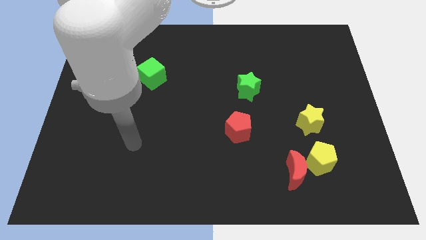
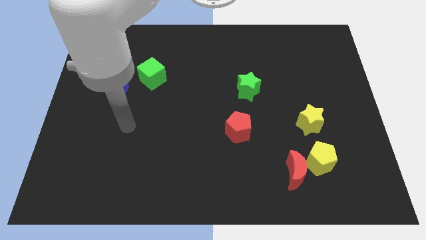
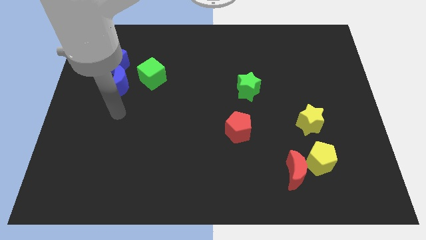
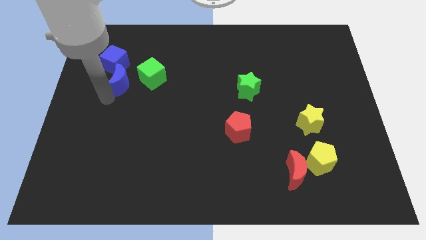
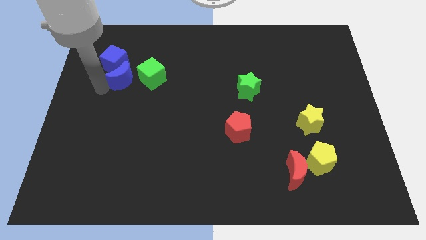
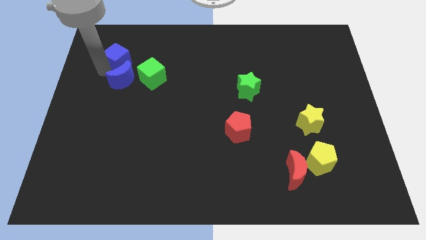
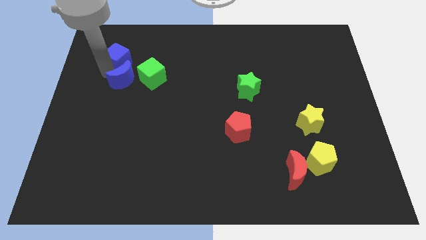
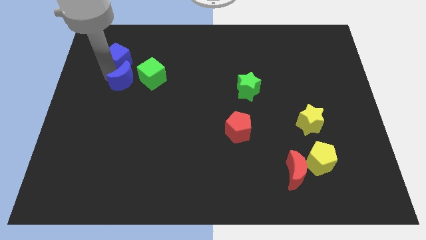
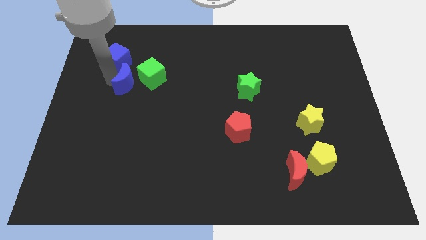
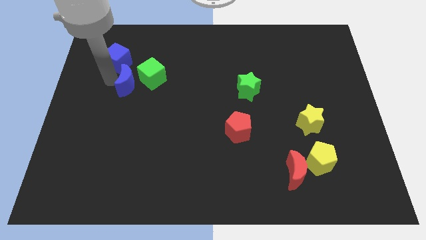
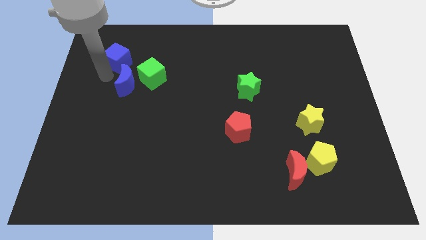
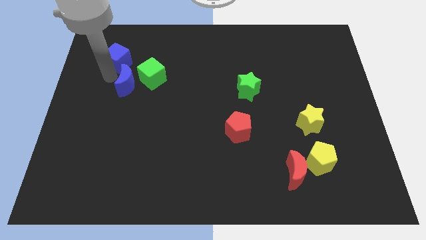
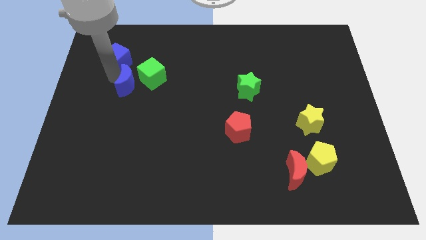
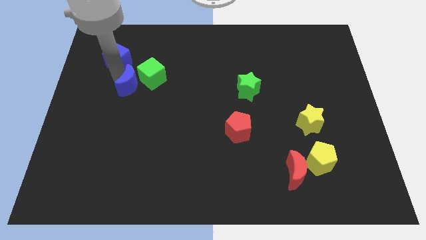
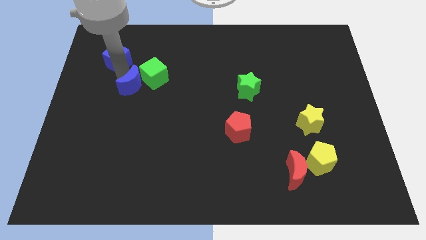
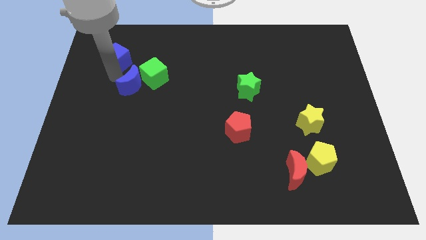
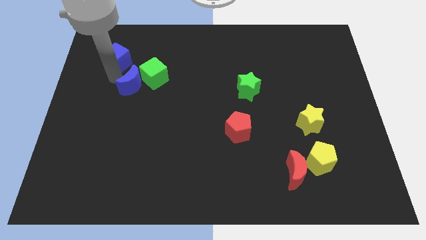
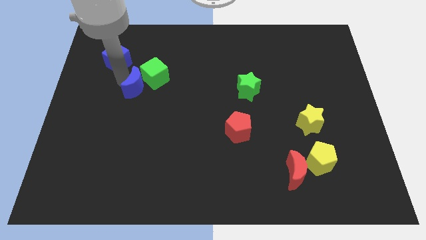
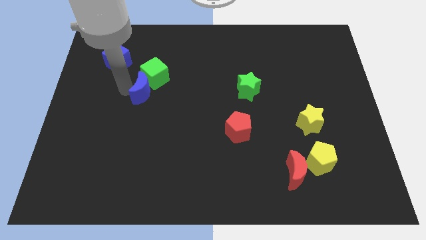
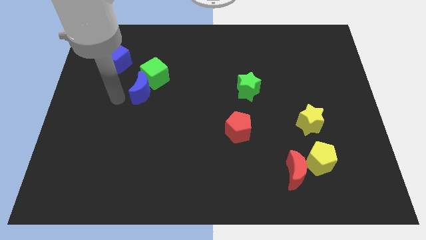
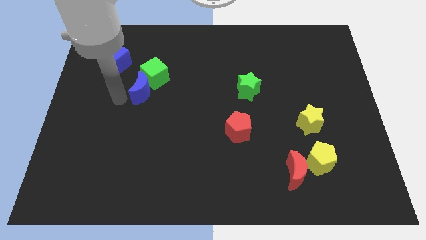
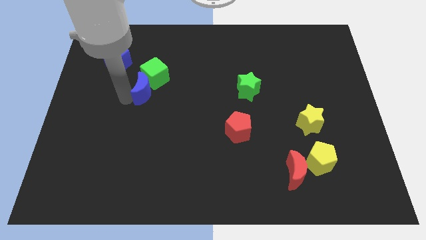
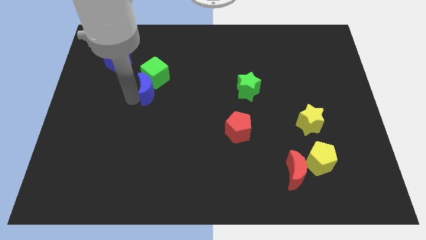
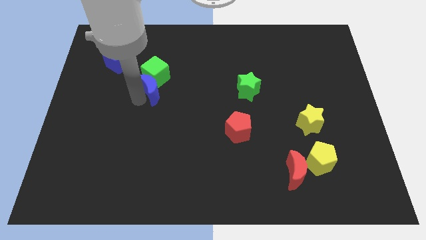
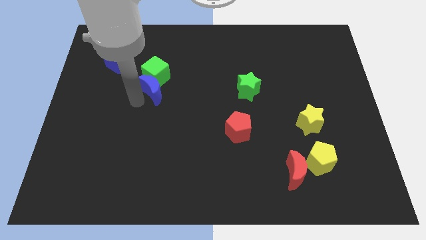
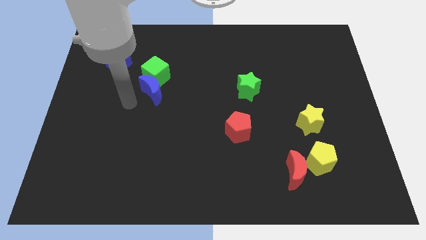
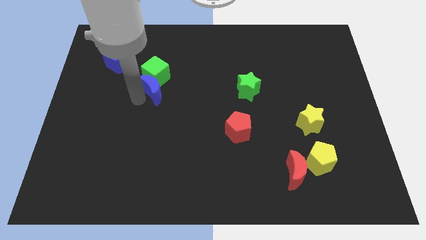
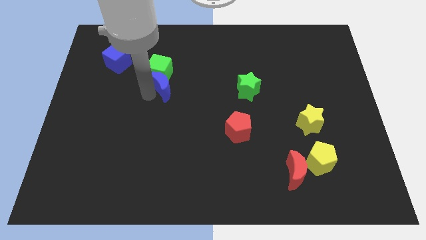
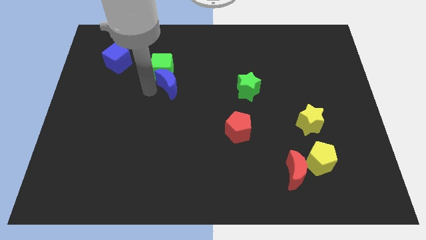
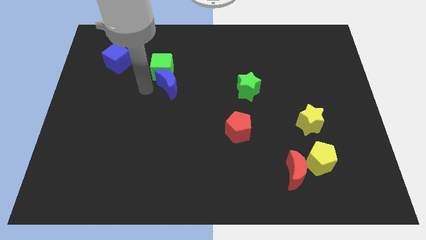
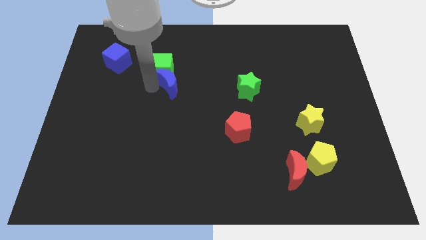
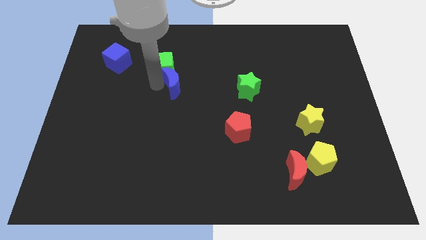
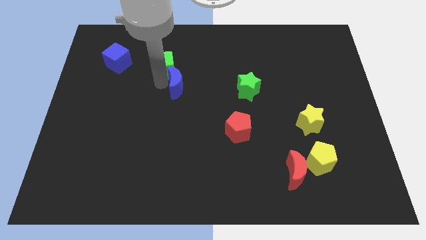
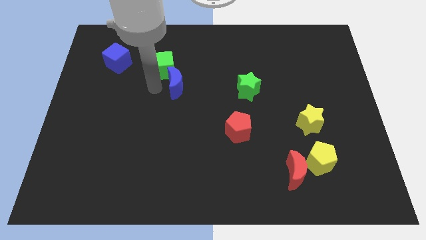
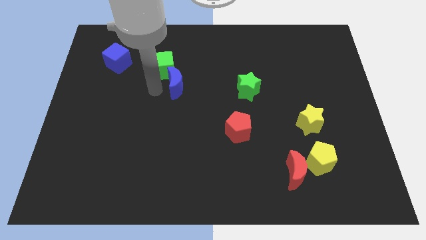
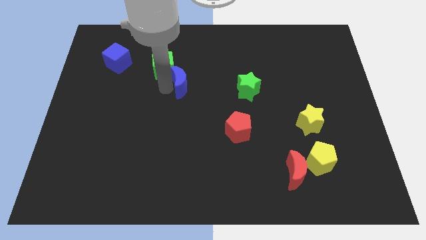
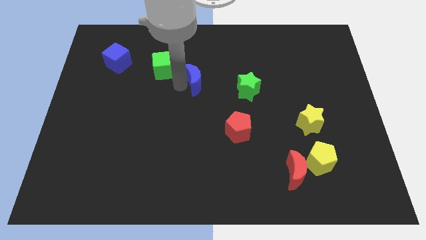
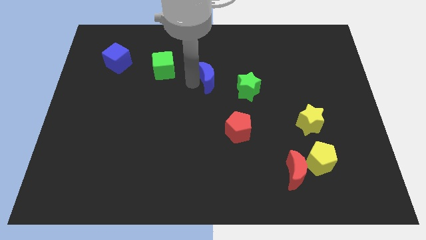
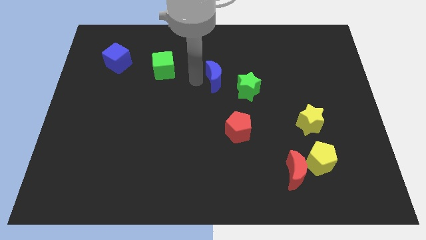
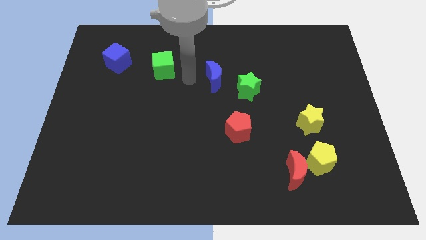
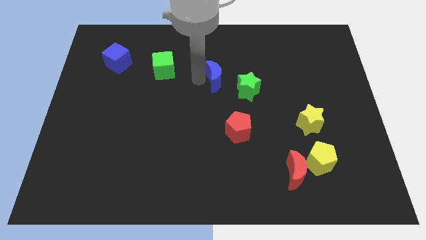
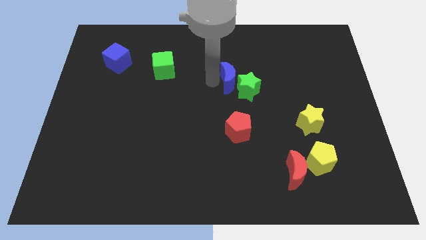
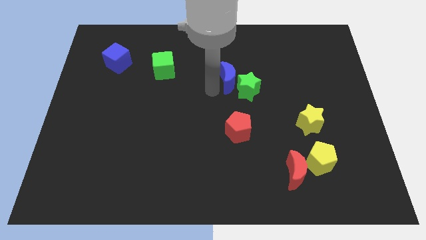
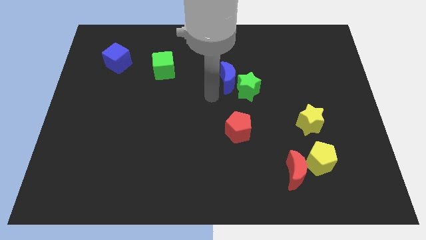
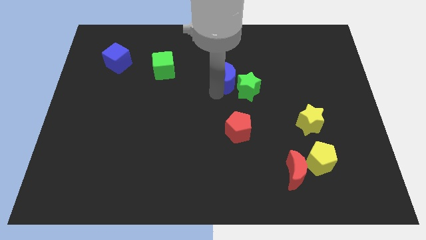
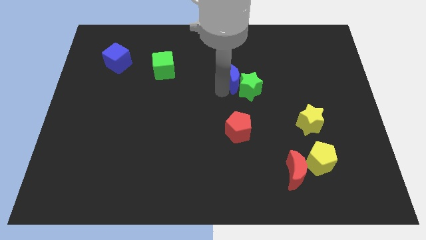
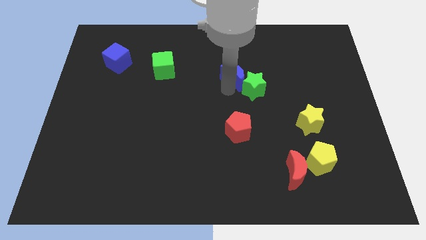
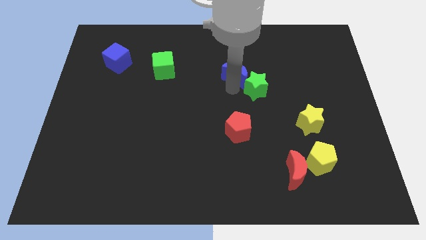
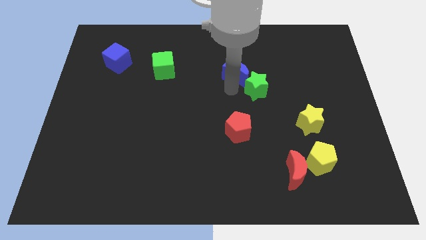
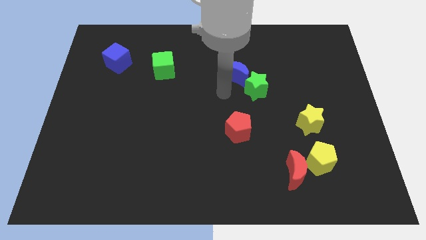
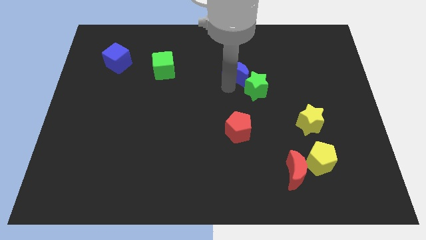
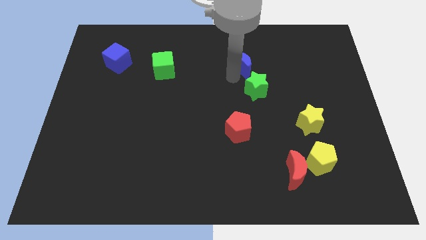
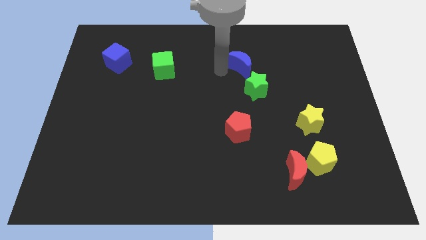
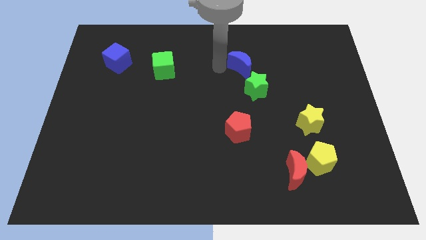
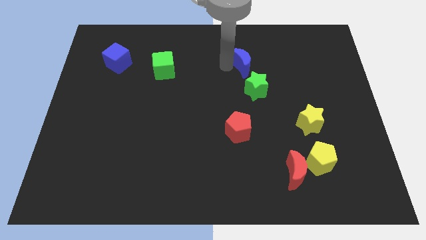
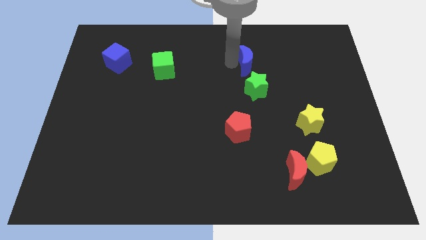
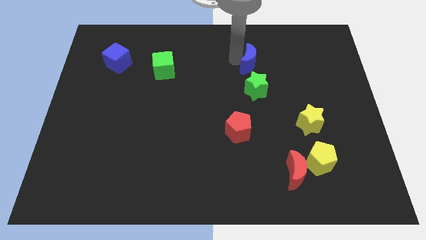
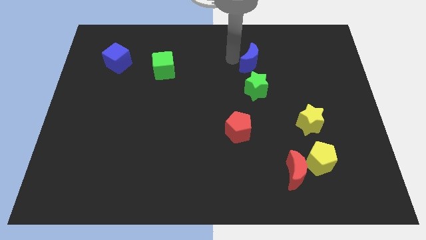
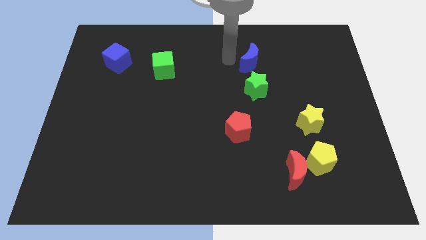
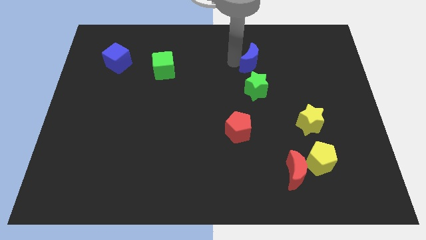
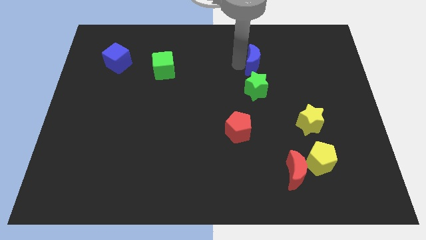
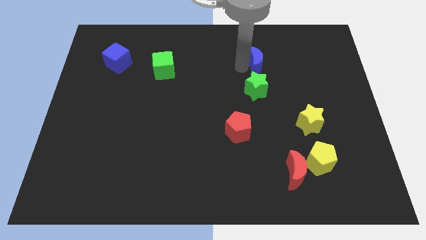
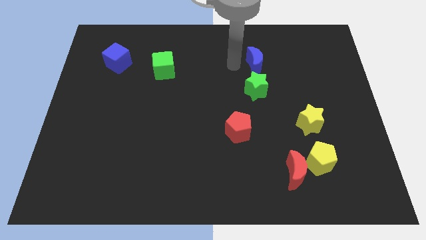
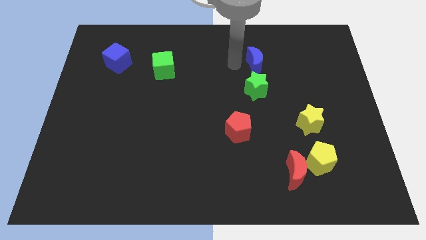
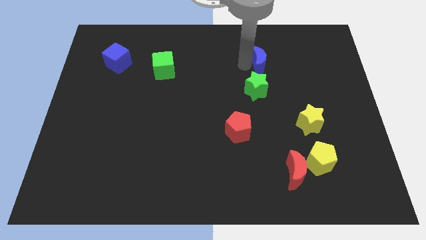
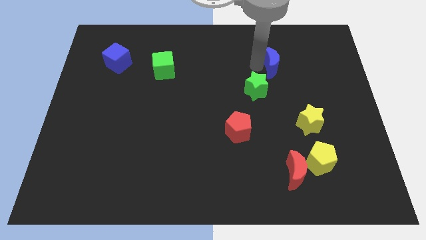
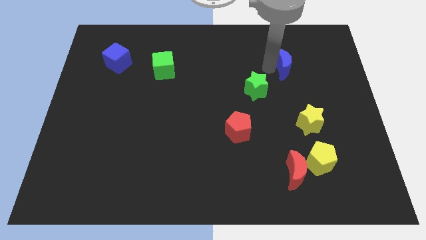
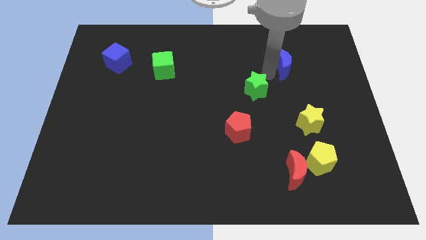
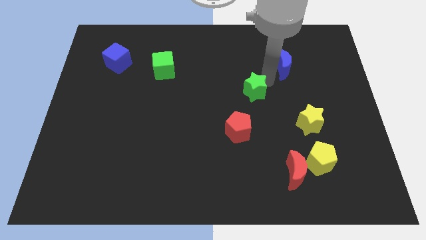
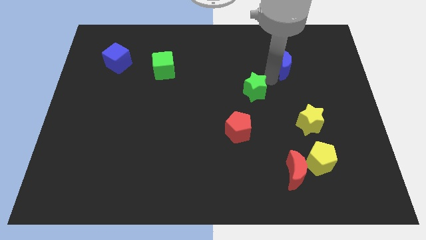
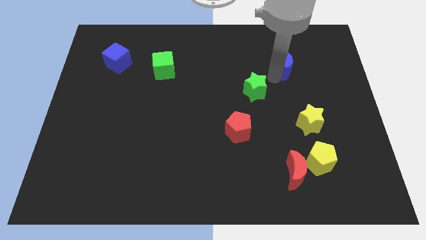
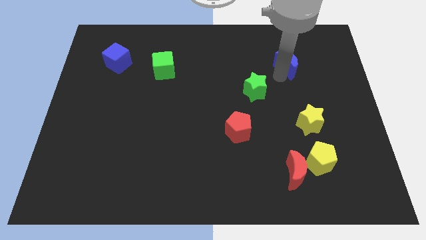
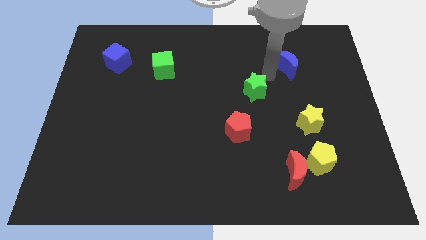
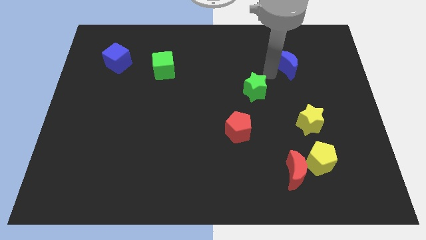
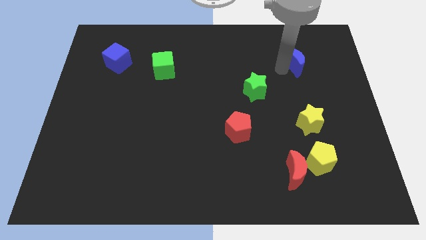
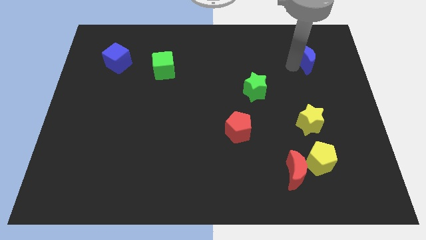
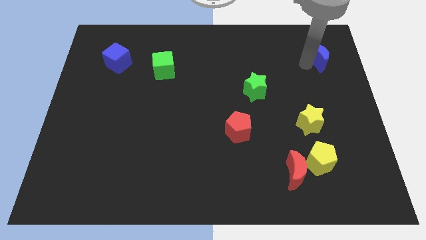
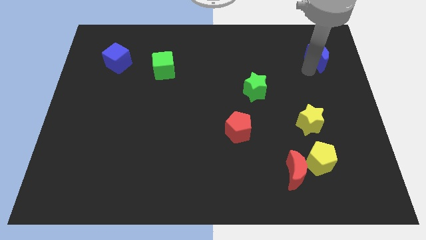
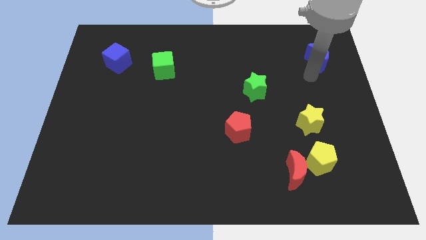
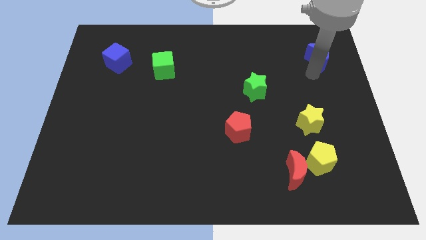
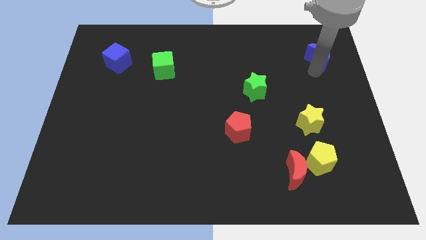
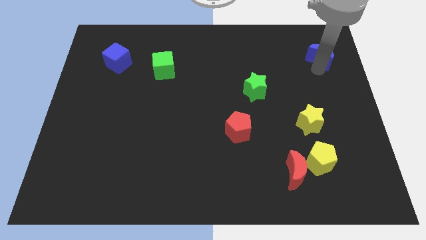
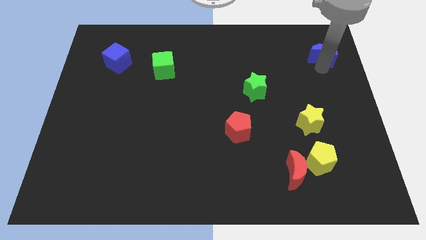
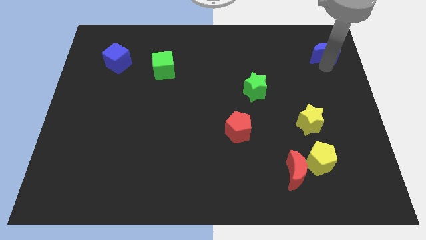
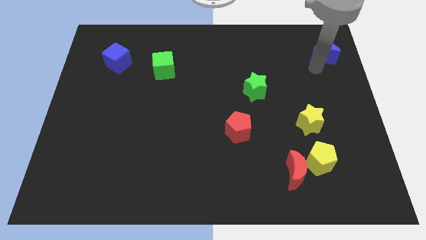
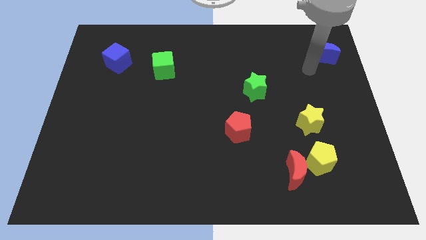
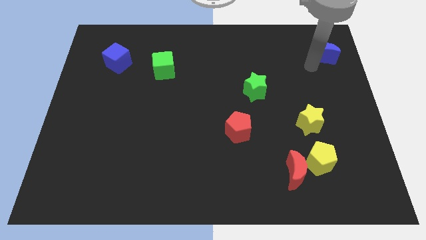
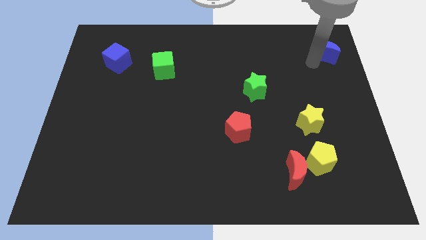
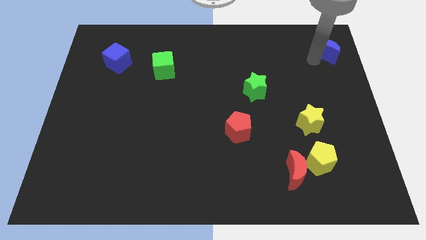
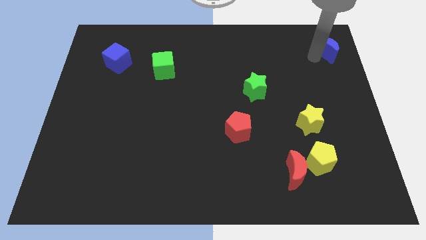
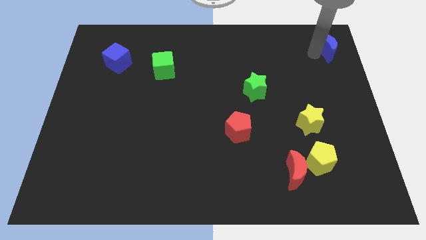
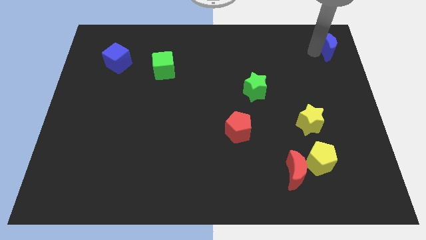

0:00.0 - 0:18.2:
slide the blue moon to the top right corner
